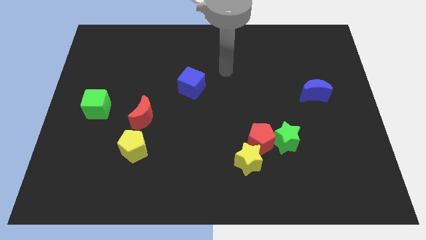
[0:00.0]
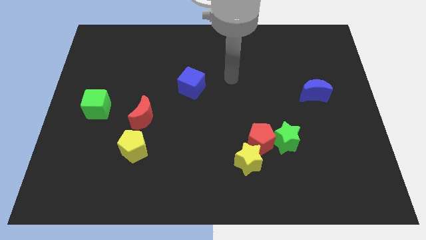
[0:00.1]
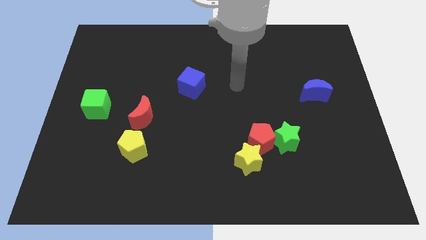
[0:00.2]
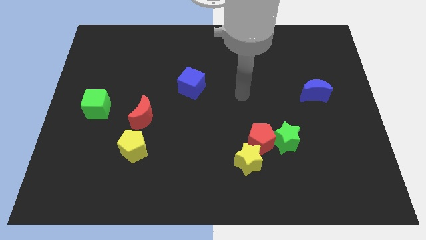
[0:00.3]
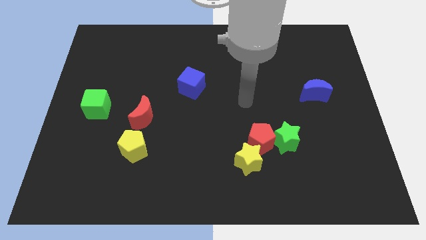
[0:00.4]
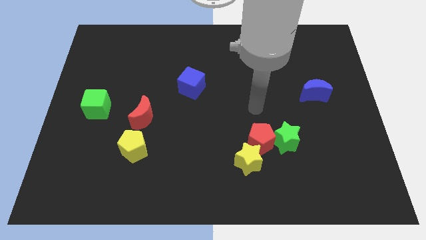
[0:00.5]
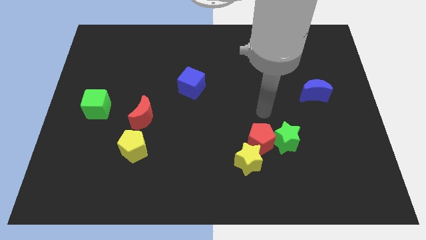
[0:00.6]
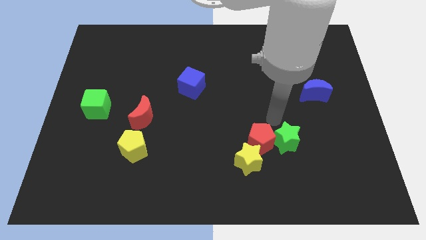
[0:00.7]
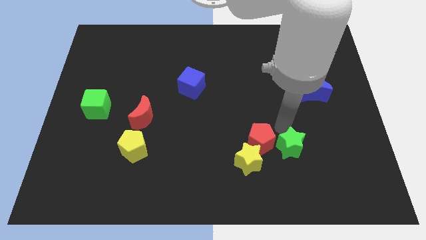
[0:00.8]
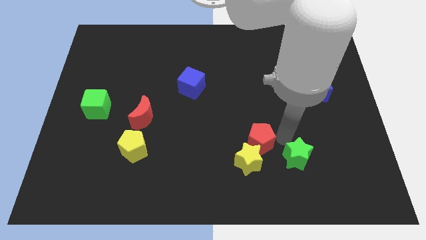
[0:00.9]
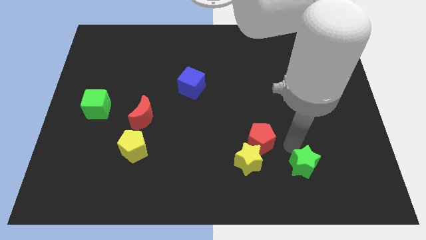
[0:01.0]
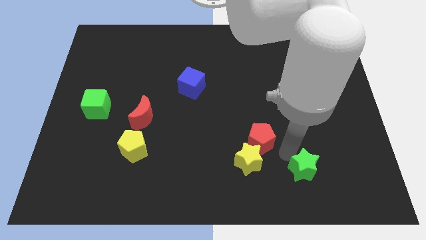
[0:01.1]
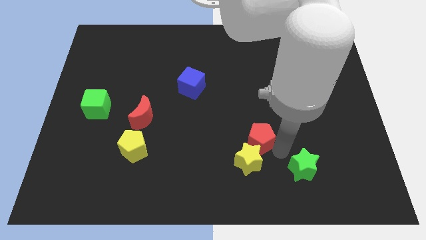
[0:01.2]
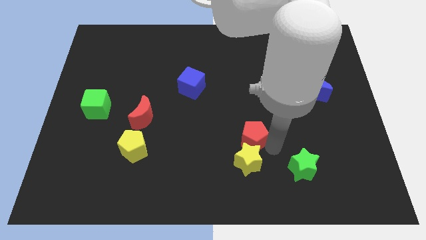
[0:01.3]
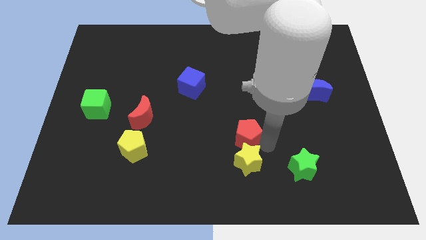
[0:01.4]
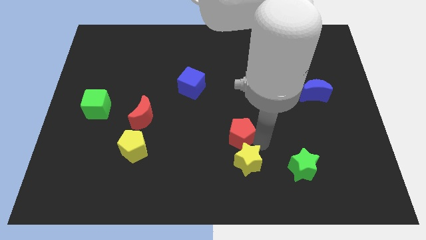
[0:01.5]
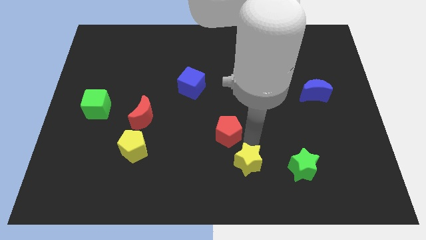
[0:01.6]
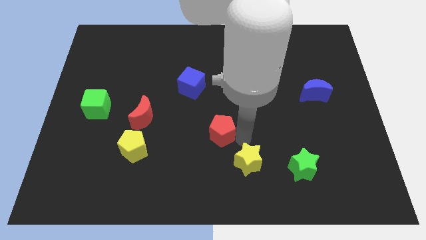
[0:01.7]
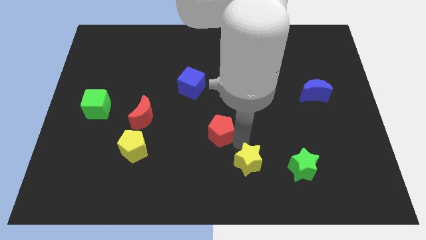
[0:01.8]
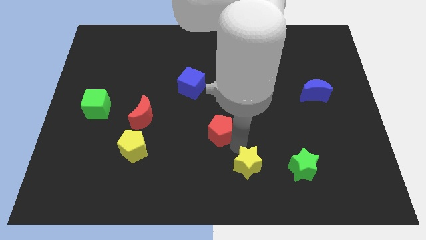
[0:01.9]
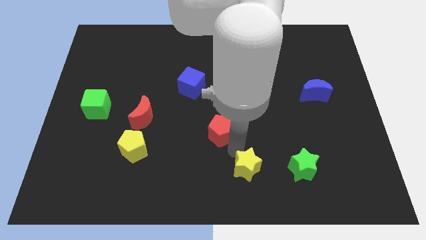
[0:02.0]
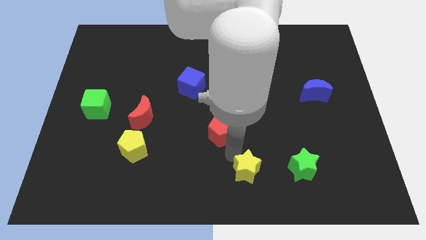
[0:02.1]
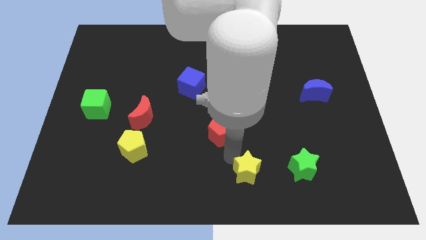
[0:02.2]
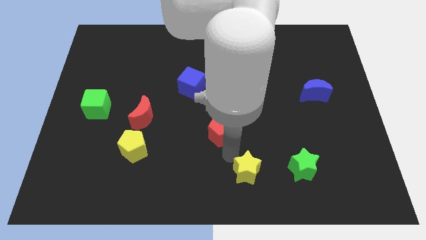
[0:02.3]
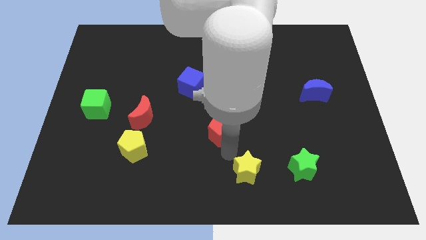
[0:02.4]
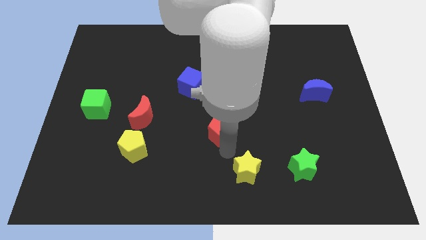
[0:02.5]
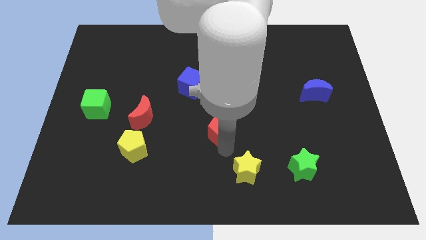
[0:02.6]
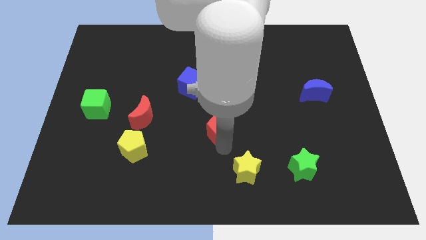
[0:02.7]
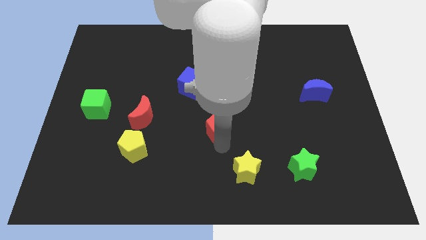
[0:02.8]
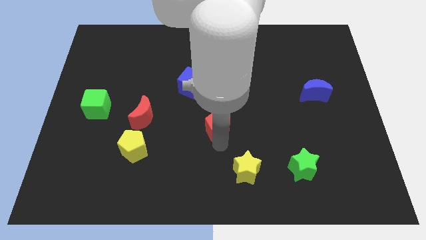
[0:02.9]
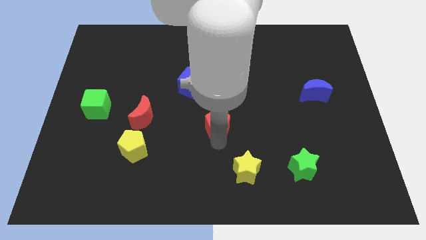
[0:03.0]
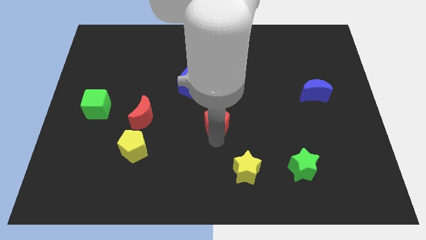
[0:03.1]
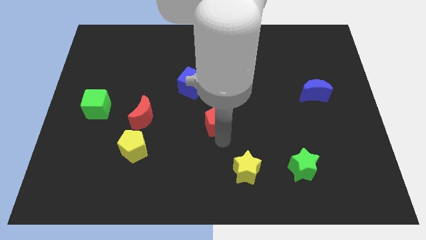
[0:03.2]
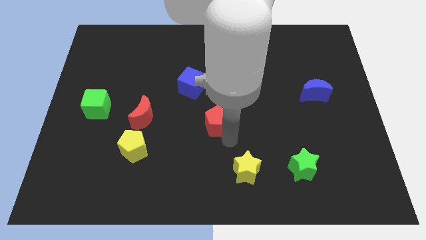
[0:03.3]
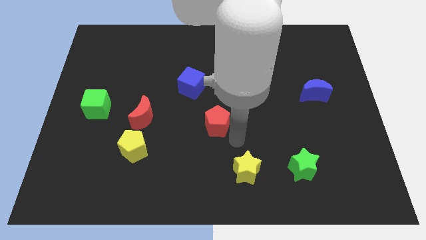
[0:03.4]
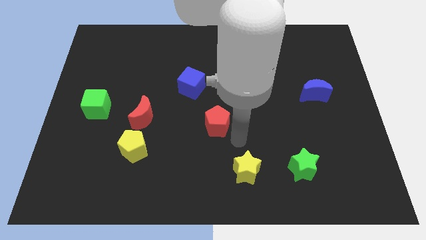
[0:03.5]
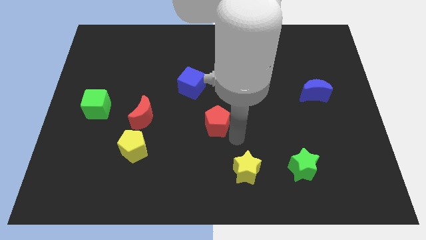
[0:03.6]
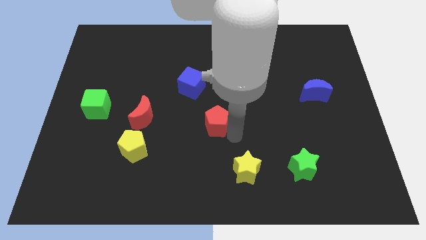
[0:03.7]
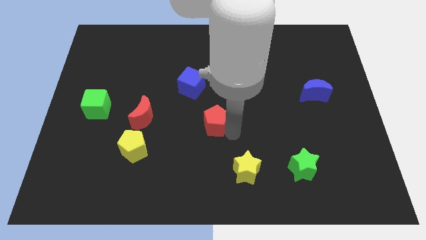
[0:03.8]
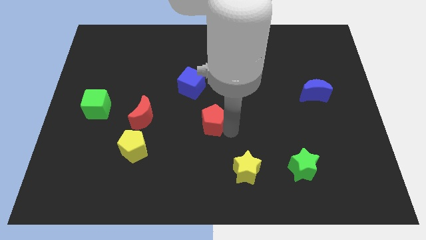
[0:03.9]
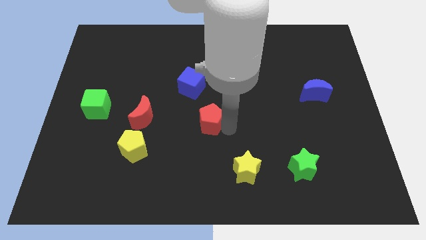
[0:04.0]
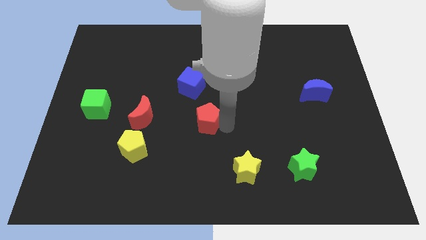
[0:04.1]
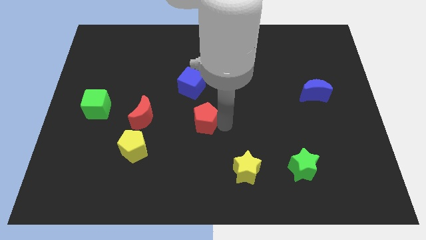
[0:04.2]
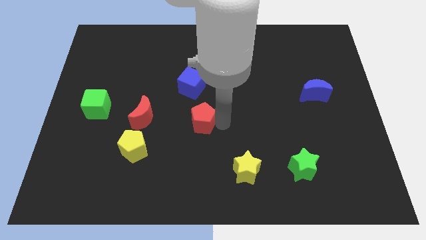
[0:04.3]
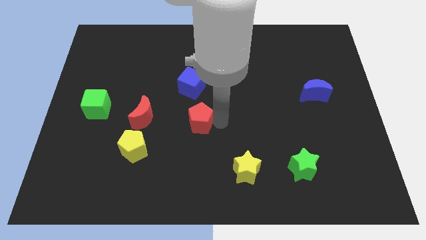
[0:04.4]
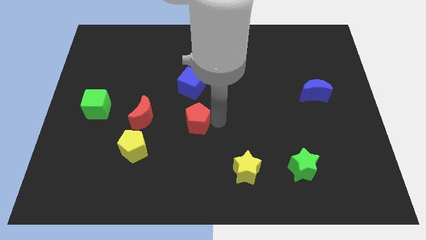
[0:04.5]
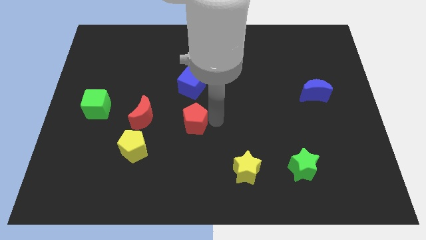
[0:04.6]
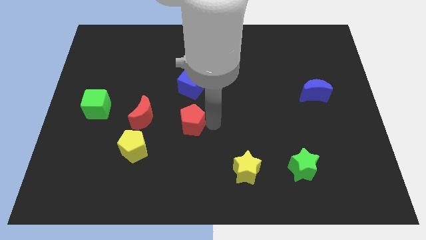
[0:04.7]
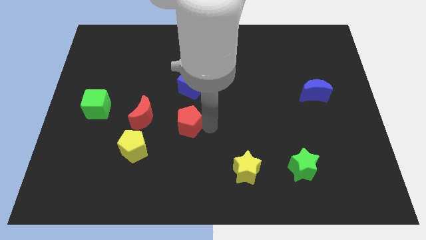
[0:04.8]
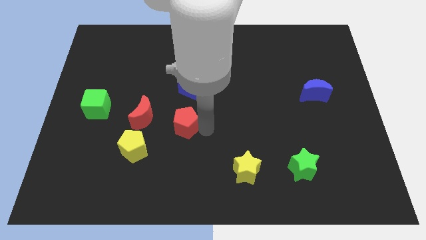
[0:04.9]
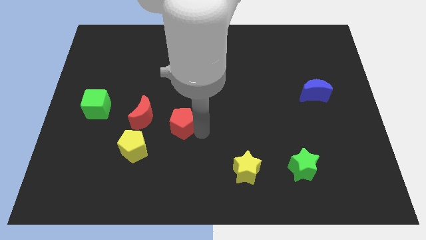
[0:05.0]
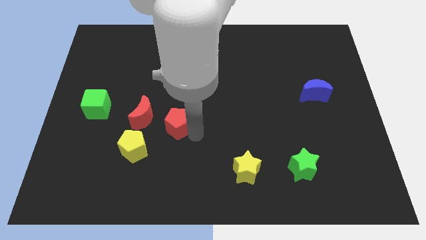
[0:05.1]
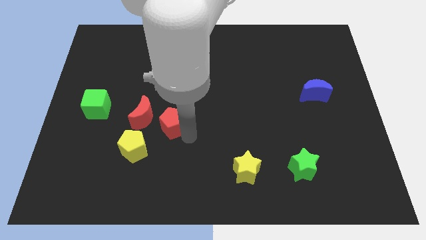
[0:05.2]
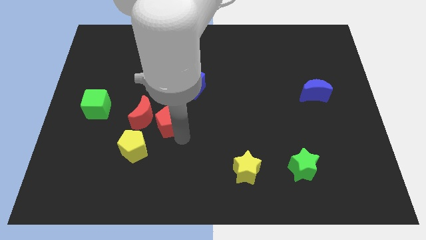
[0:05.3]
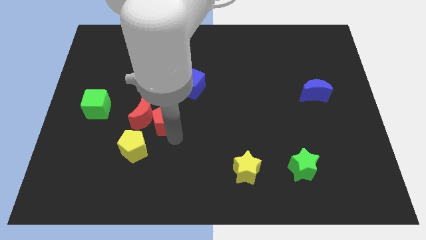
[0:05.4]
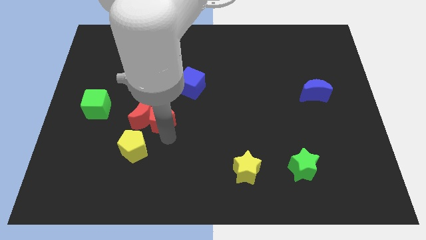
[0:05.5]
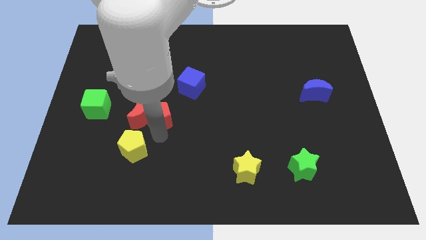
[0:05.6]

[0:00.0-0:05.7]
slide the red pentagon to the top side of the yellow pentagon

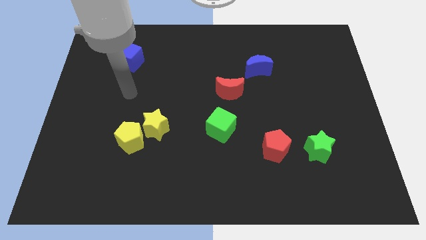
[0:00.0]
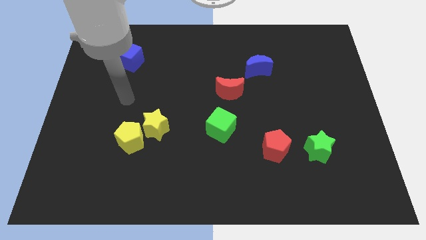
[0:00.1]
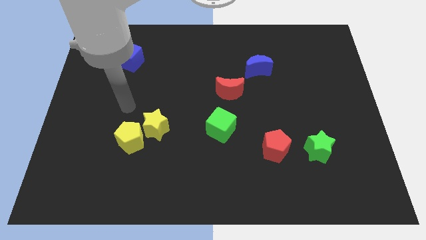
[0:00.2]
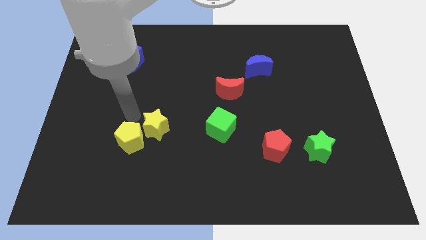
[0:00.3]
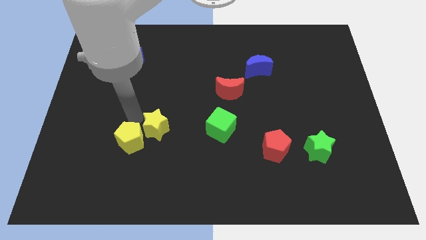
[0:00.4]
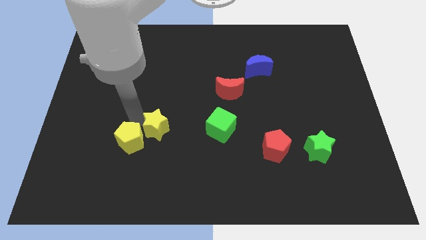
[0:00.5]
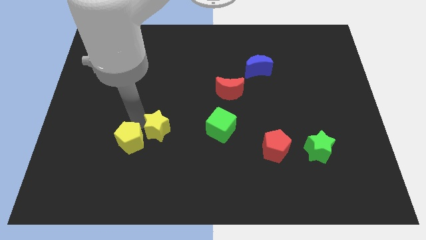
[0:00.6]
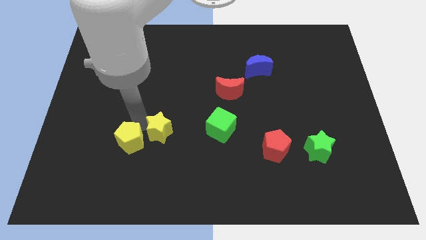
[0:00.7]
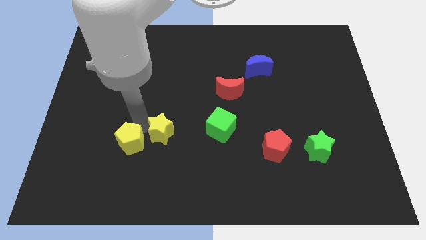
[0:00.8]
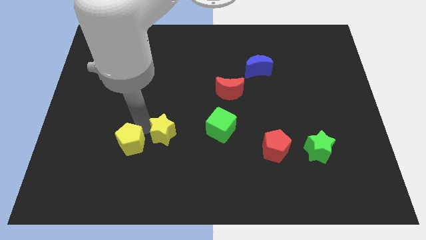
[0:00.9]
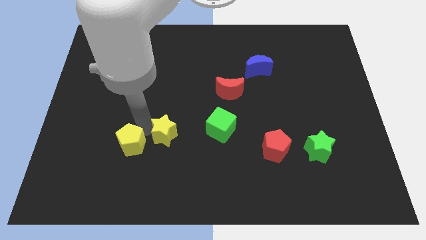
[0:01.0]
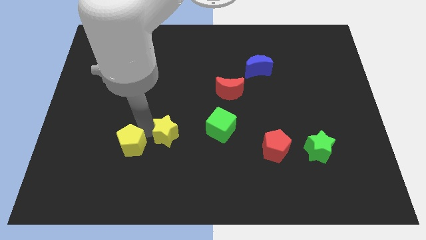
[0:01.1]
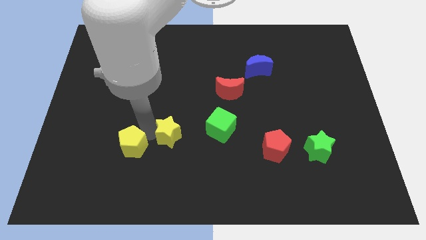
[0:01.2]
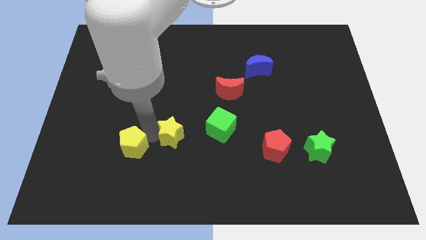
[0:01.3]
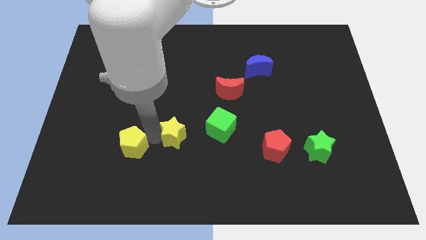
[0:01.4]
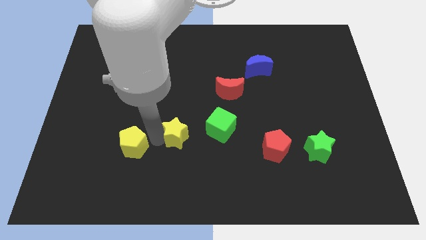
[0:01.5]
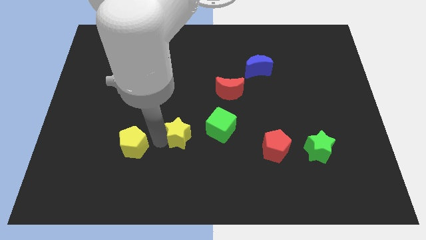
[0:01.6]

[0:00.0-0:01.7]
put the yellow star to the bottom left of the green cube
